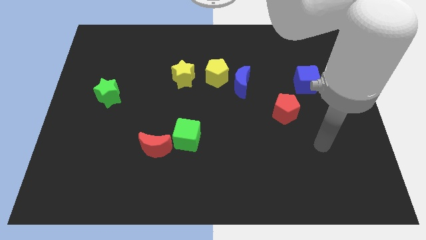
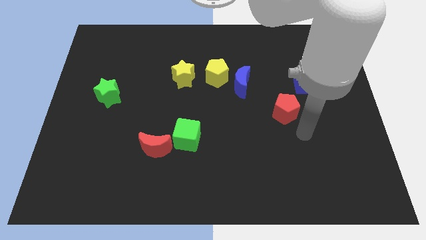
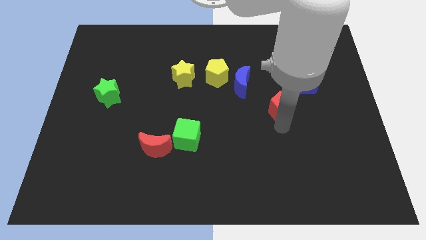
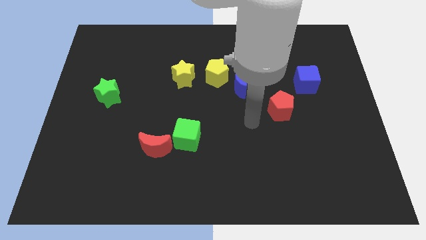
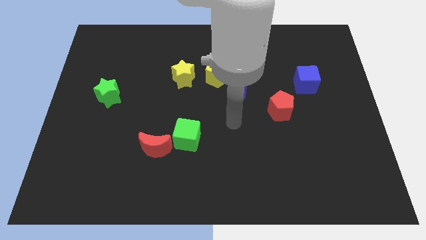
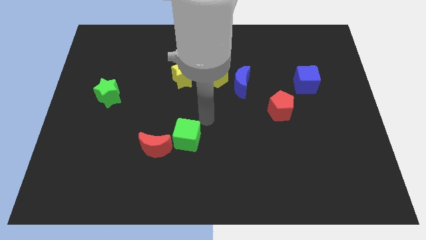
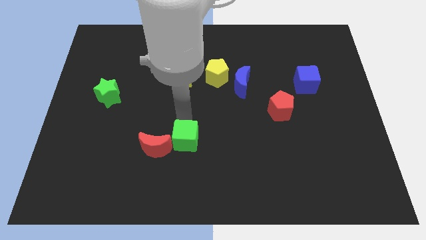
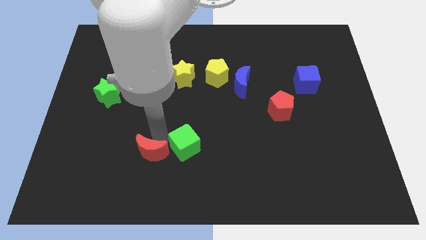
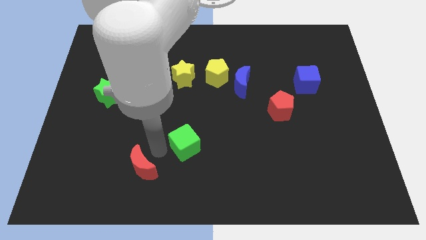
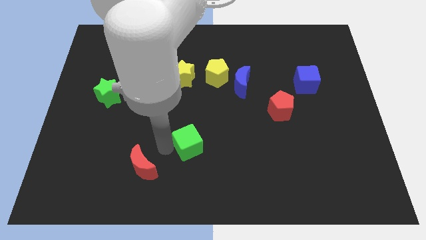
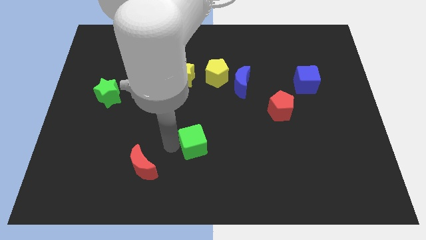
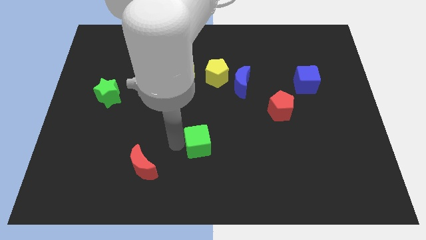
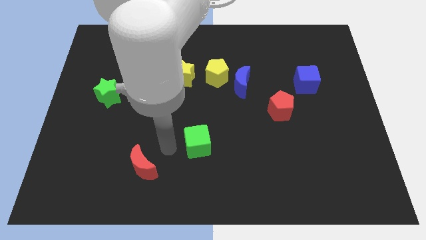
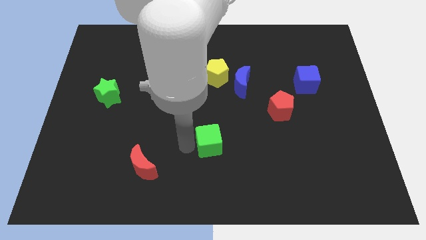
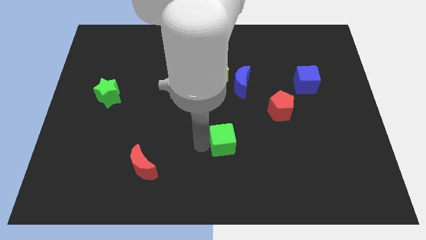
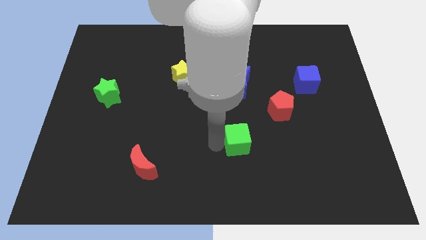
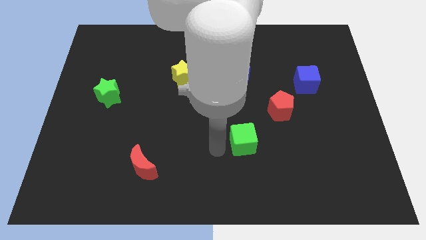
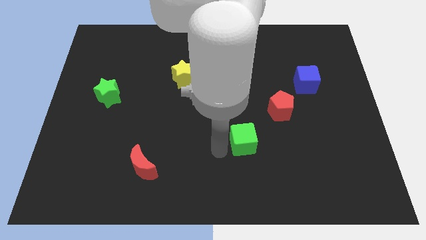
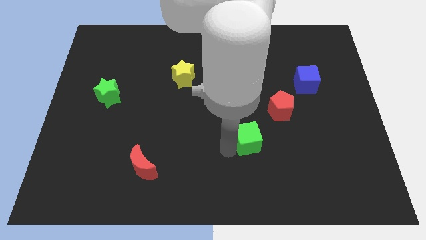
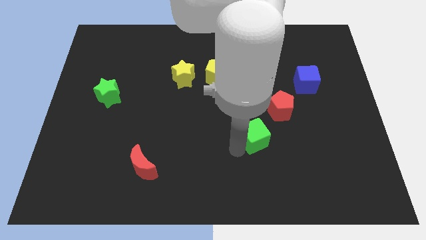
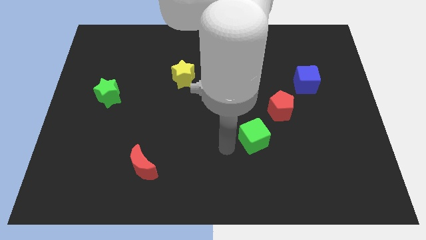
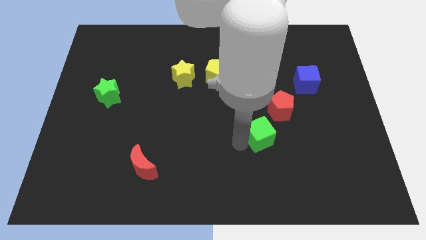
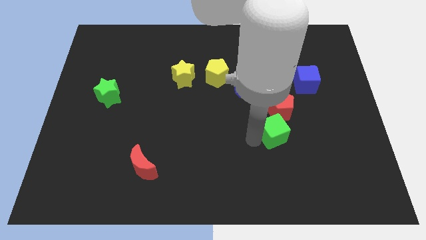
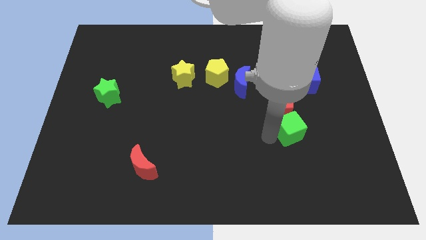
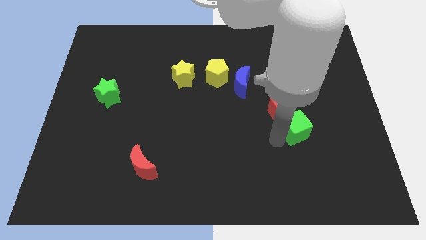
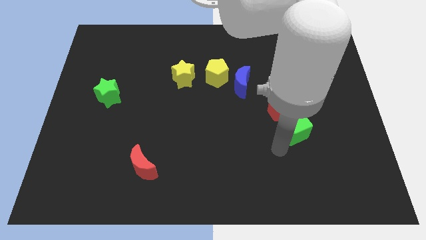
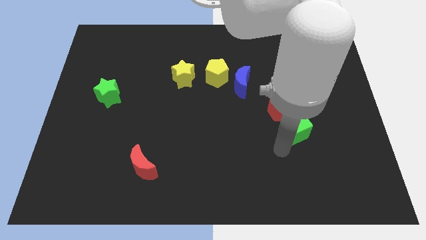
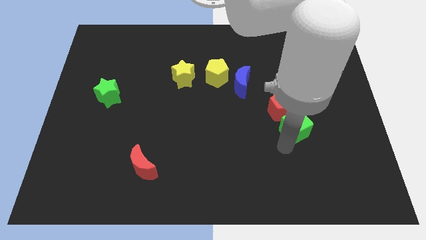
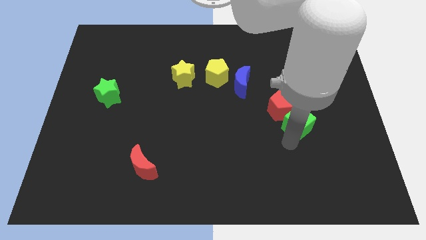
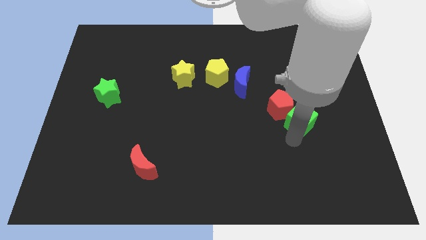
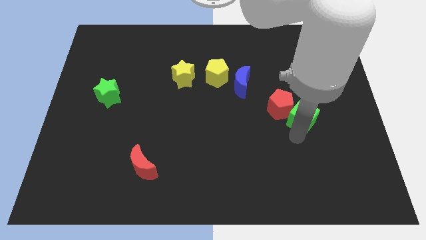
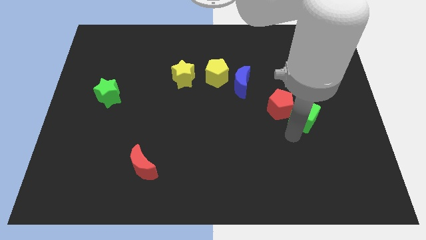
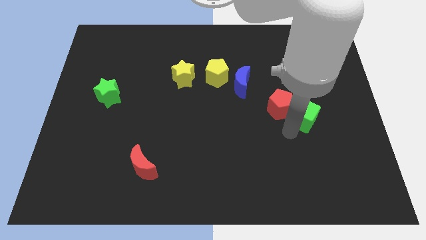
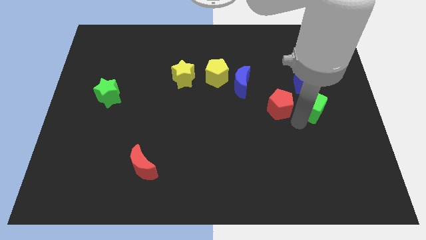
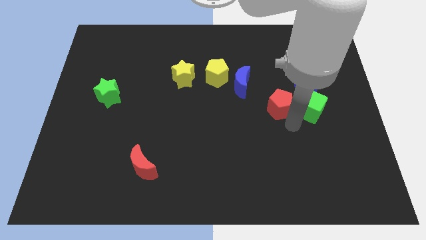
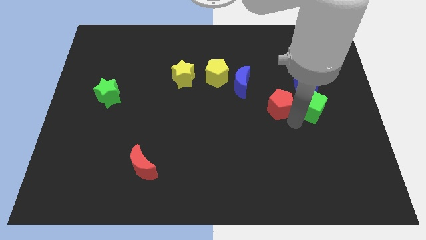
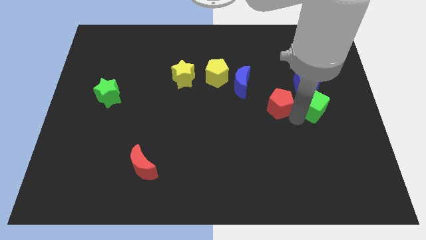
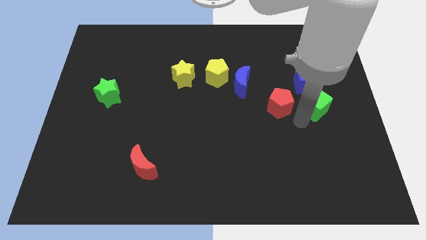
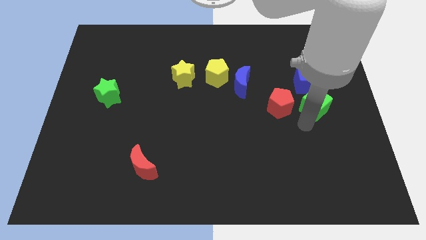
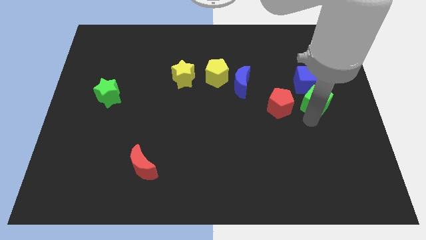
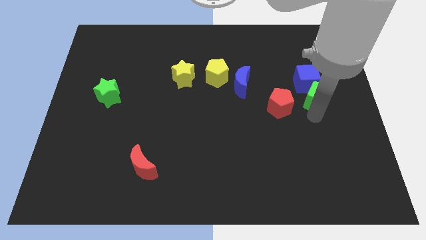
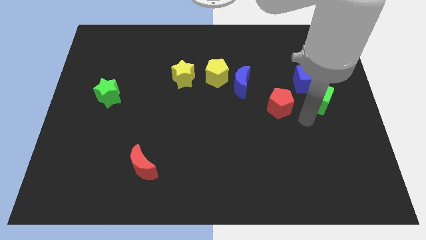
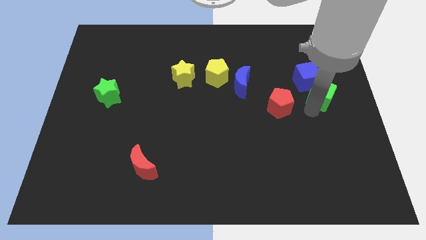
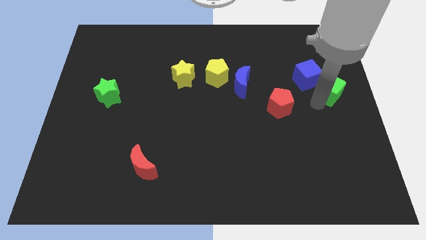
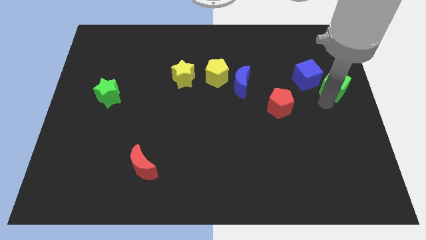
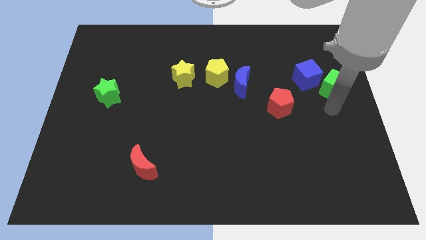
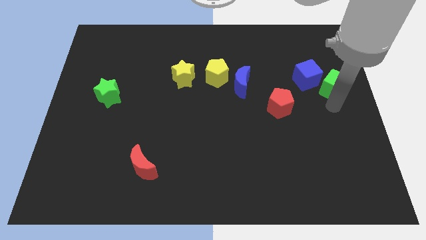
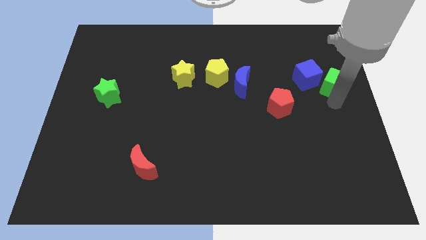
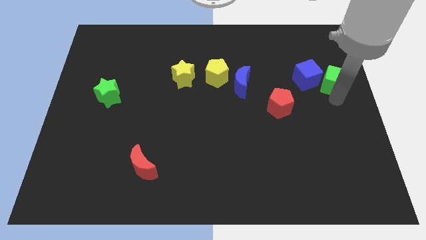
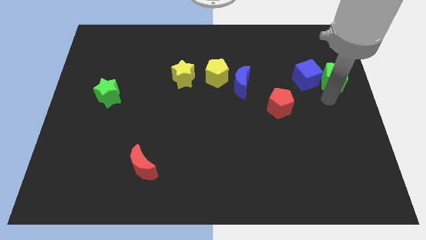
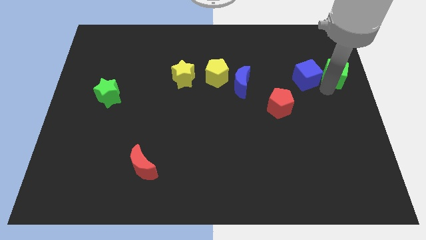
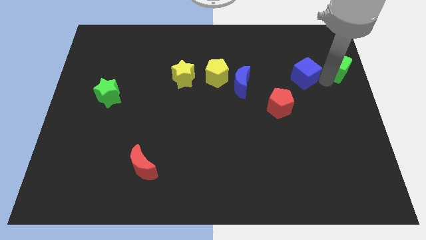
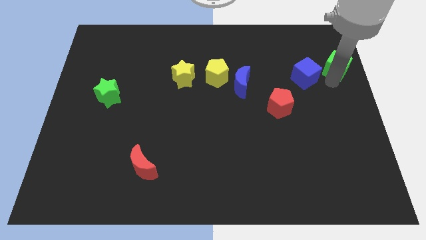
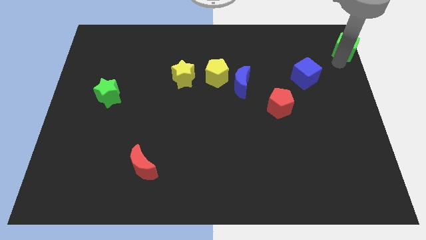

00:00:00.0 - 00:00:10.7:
push the green cube to the top right corner
